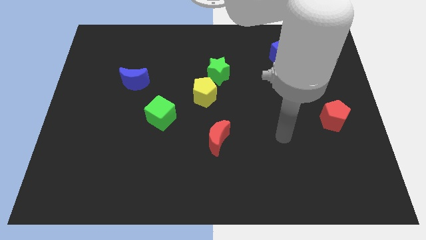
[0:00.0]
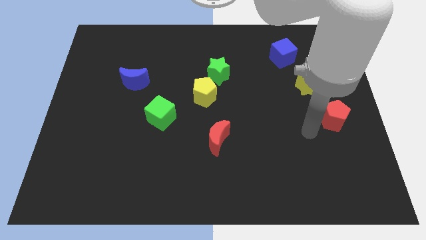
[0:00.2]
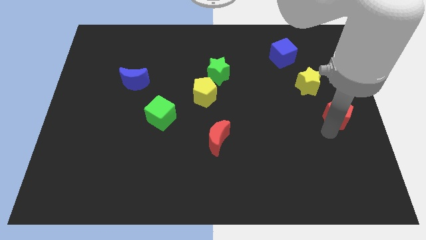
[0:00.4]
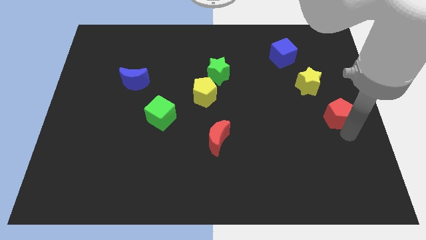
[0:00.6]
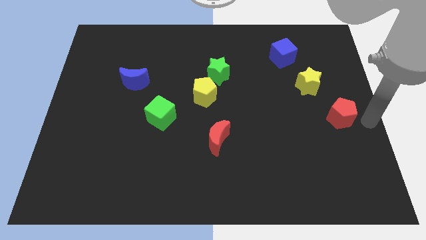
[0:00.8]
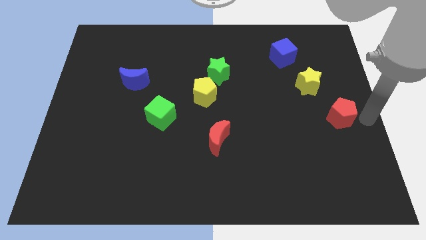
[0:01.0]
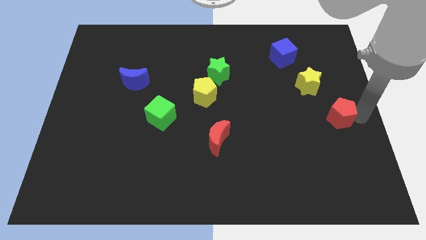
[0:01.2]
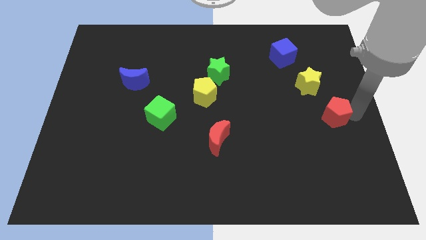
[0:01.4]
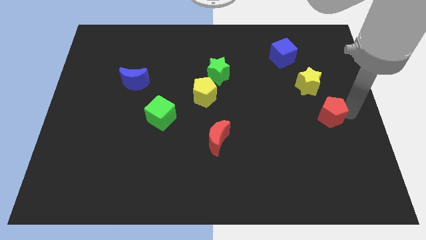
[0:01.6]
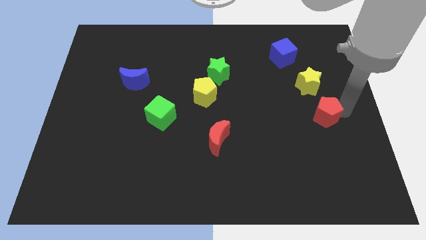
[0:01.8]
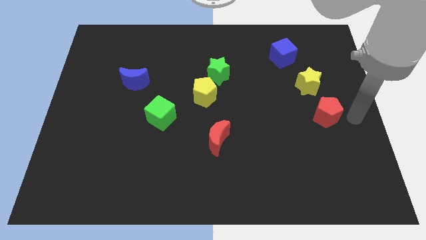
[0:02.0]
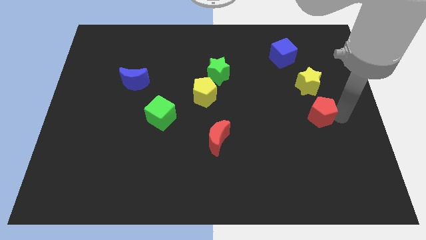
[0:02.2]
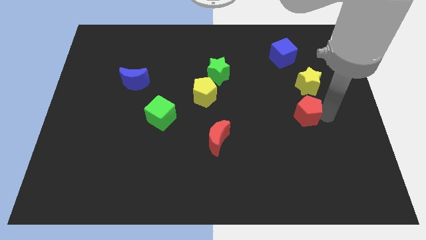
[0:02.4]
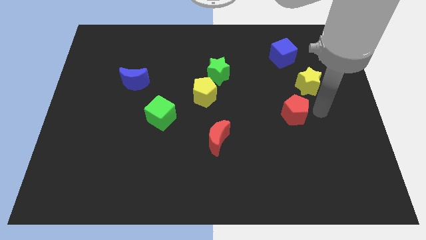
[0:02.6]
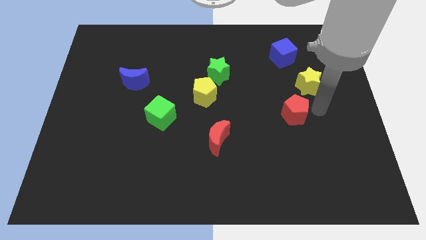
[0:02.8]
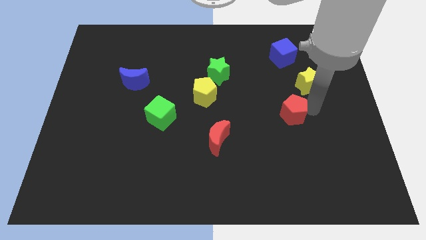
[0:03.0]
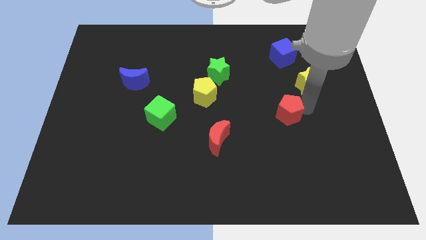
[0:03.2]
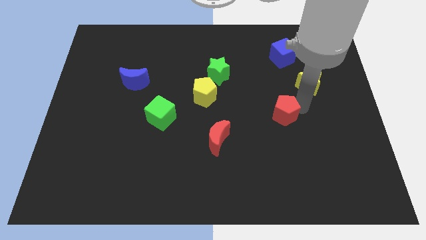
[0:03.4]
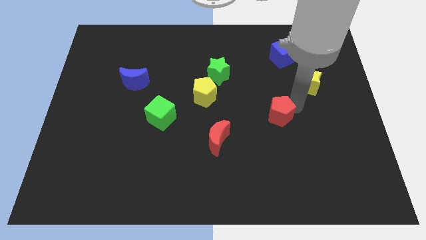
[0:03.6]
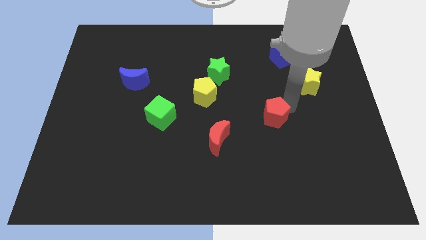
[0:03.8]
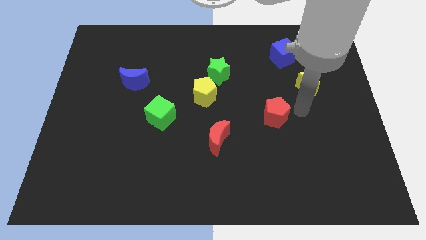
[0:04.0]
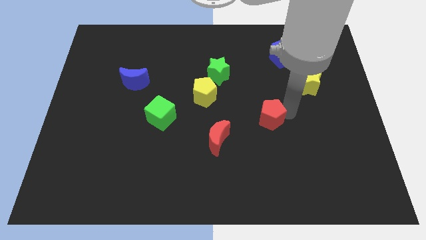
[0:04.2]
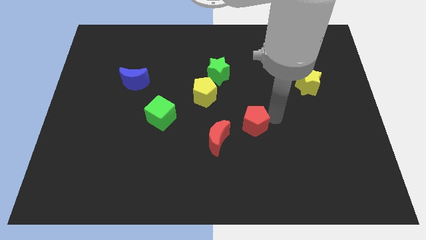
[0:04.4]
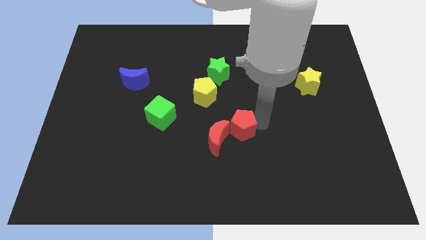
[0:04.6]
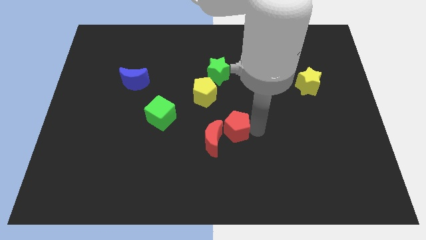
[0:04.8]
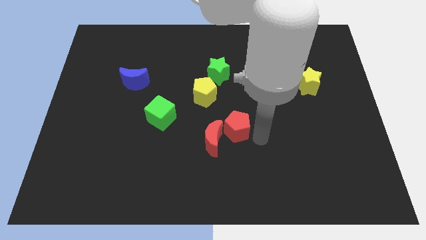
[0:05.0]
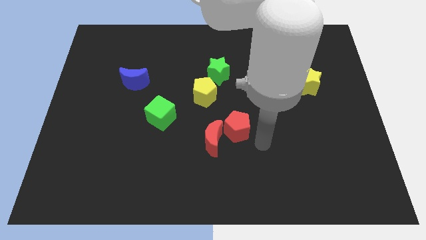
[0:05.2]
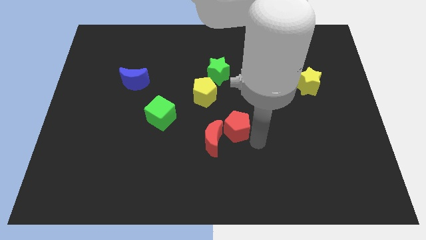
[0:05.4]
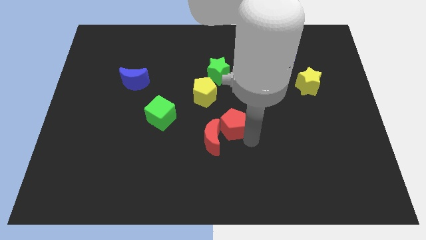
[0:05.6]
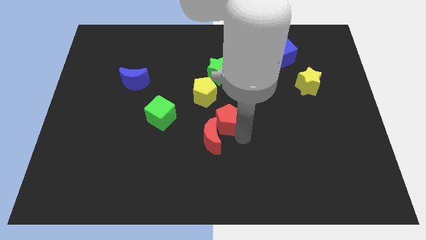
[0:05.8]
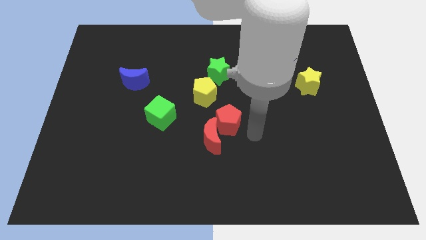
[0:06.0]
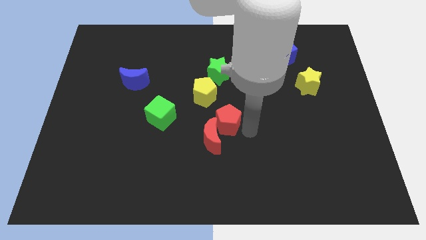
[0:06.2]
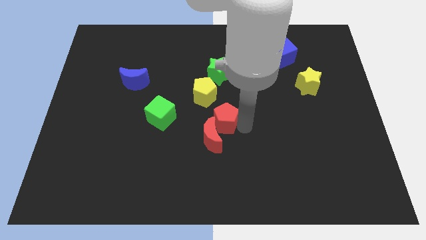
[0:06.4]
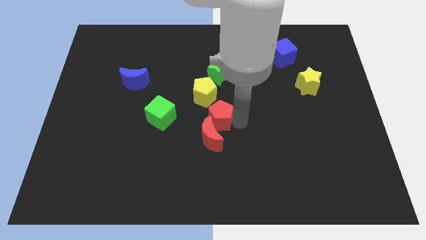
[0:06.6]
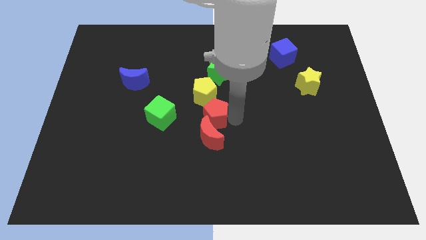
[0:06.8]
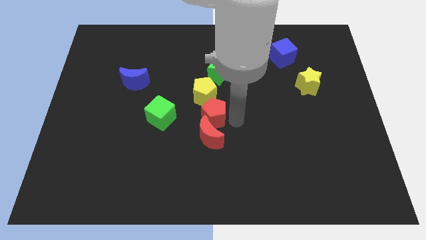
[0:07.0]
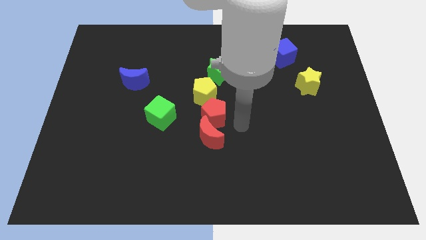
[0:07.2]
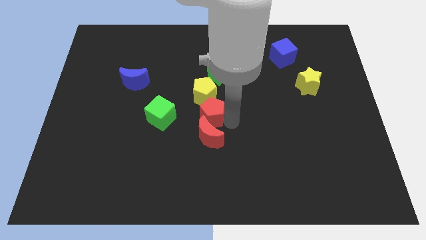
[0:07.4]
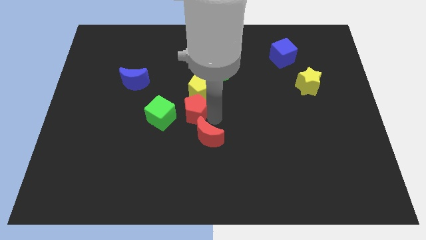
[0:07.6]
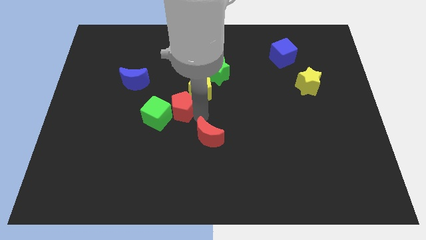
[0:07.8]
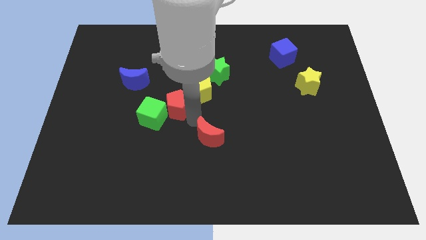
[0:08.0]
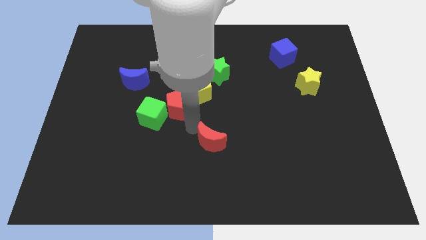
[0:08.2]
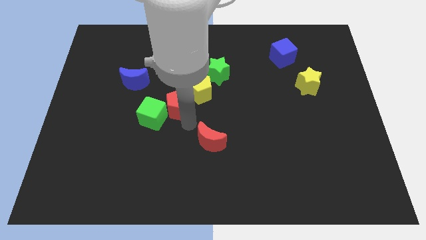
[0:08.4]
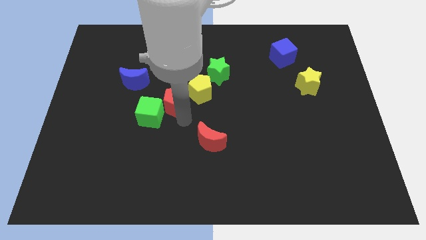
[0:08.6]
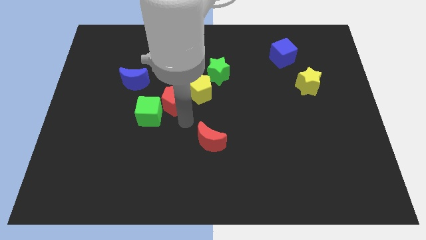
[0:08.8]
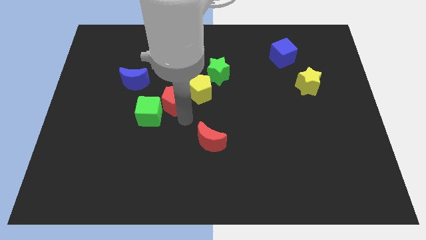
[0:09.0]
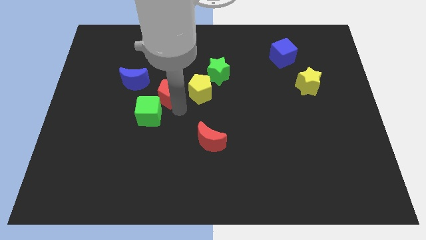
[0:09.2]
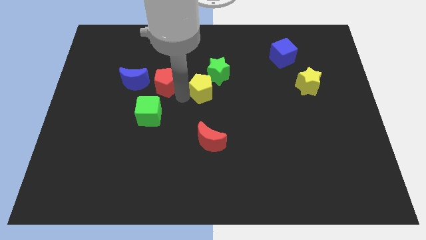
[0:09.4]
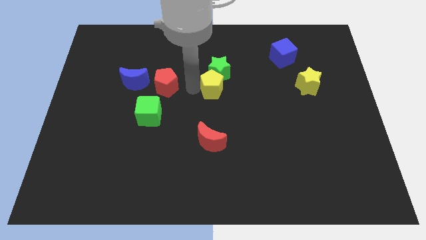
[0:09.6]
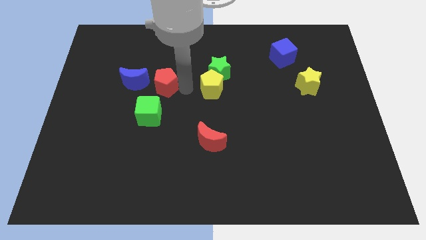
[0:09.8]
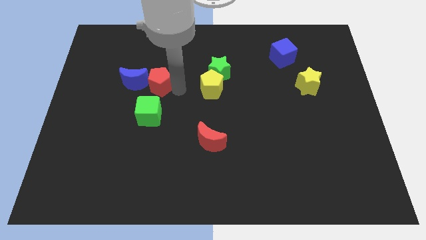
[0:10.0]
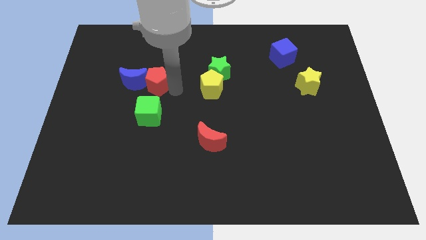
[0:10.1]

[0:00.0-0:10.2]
put the red pentagon next to the blue moon

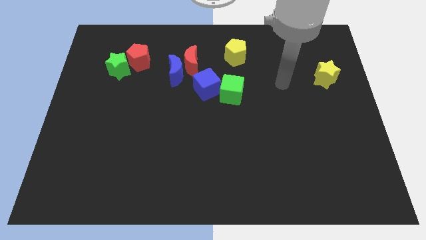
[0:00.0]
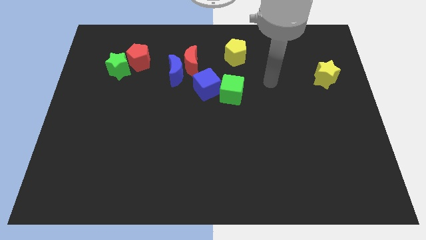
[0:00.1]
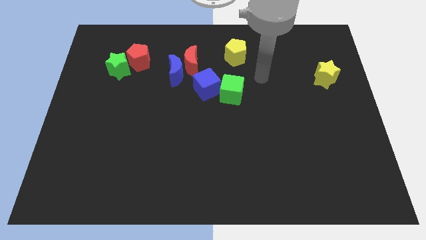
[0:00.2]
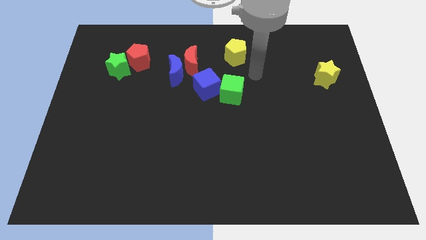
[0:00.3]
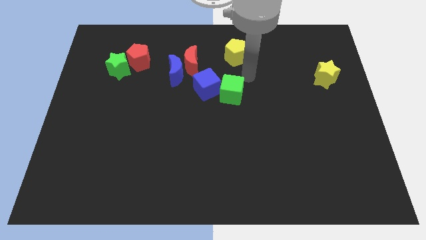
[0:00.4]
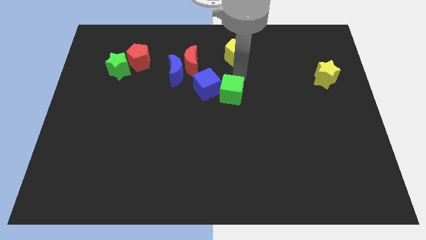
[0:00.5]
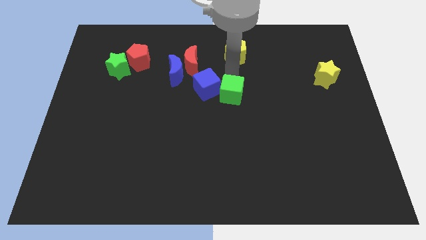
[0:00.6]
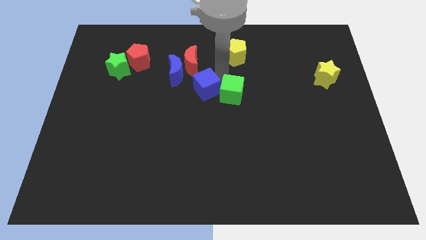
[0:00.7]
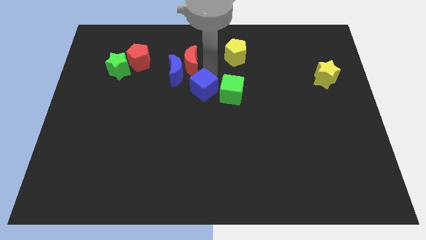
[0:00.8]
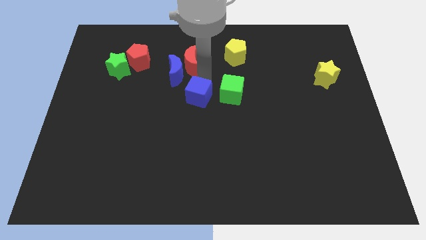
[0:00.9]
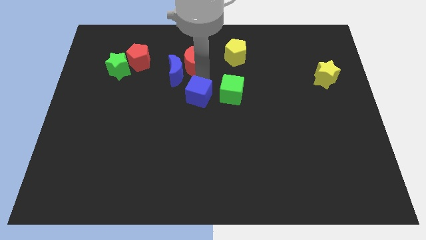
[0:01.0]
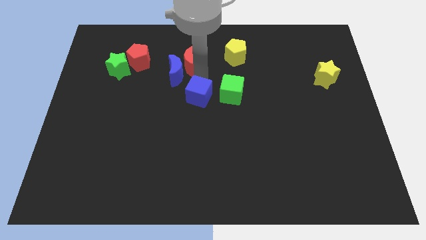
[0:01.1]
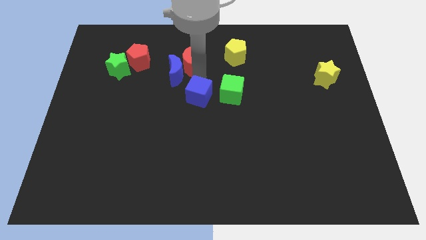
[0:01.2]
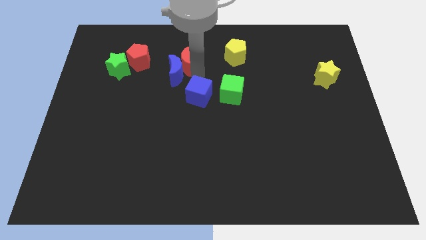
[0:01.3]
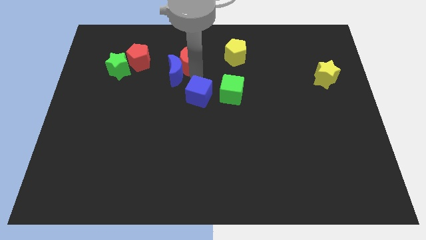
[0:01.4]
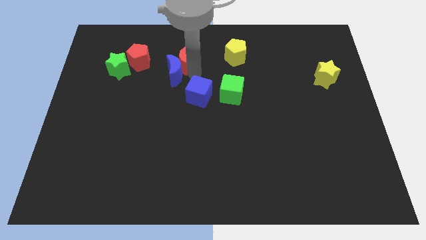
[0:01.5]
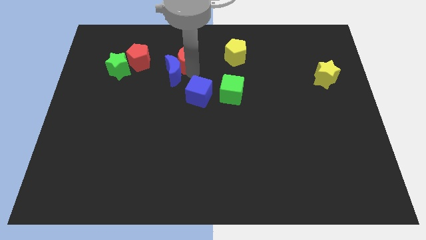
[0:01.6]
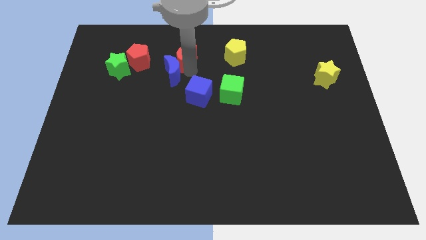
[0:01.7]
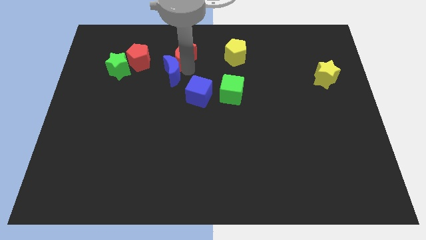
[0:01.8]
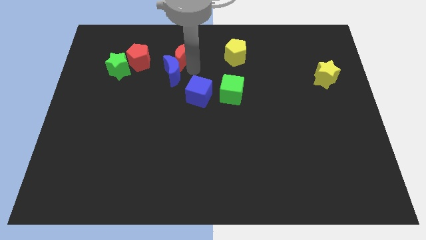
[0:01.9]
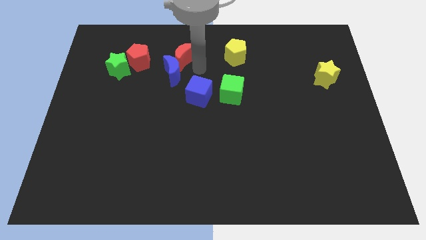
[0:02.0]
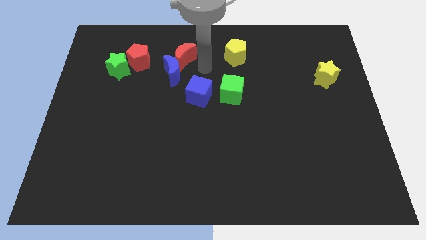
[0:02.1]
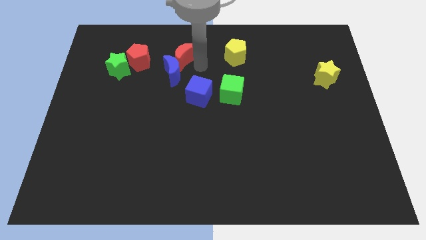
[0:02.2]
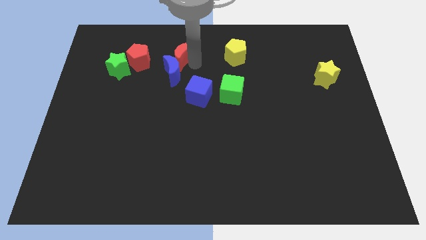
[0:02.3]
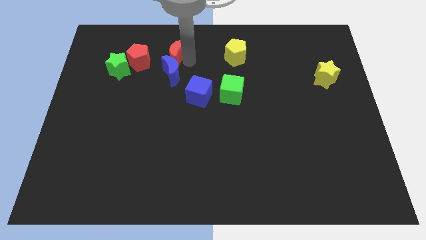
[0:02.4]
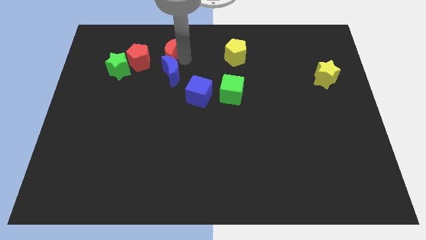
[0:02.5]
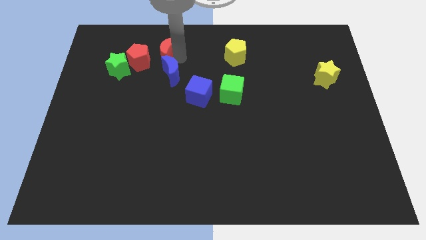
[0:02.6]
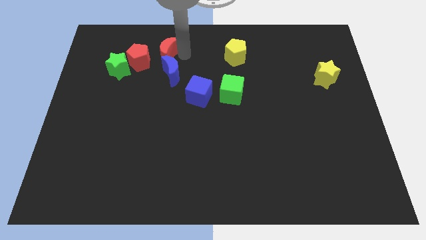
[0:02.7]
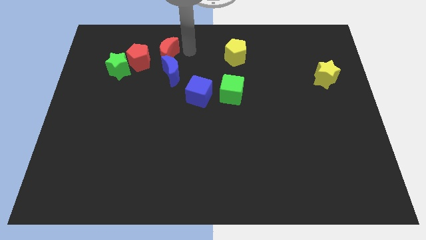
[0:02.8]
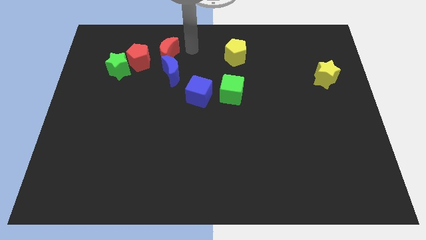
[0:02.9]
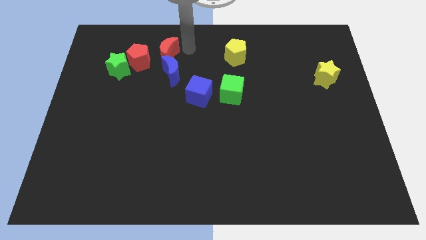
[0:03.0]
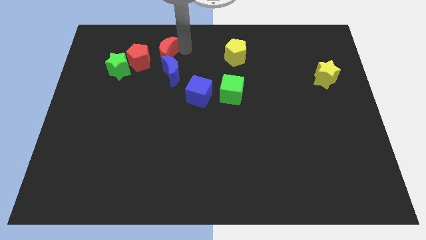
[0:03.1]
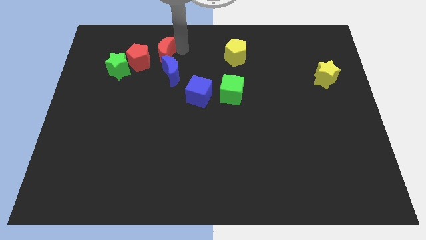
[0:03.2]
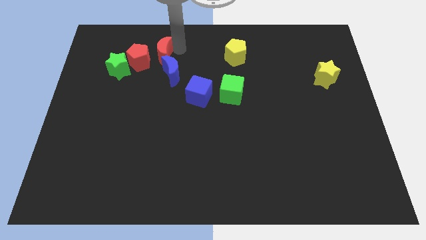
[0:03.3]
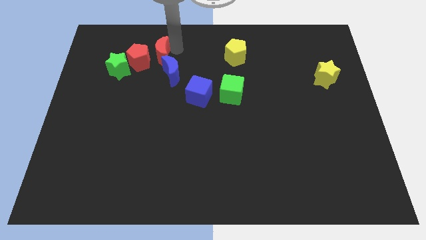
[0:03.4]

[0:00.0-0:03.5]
push the red moon to the red pentagon
